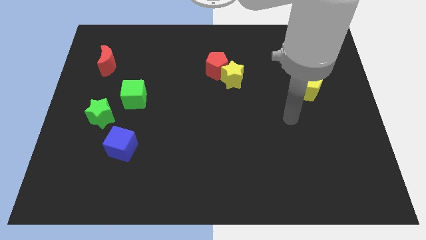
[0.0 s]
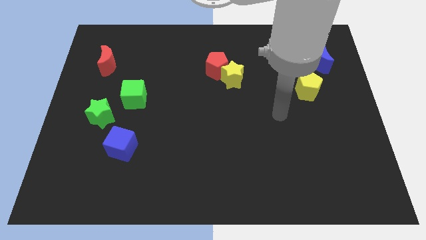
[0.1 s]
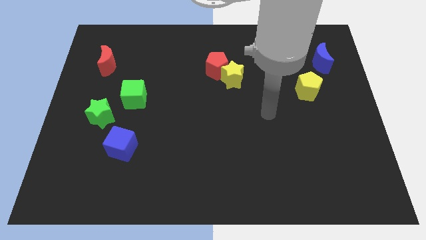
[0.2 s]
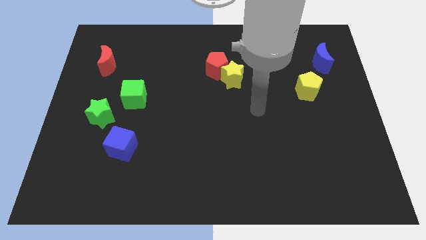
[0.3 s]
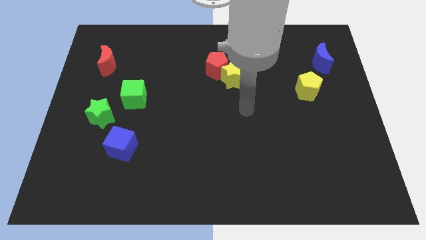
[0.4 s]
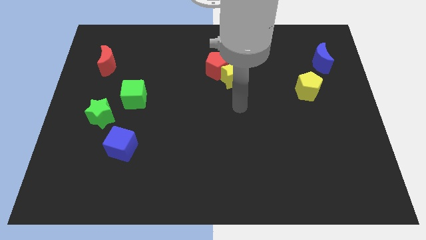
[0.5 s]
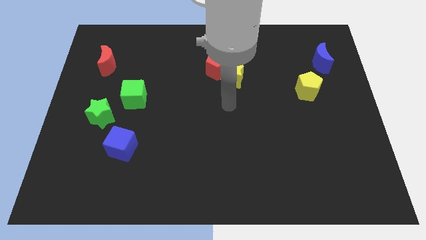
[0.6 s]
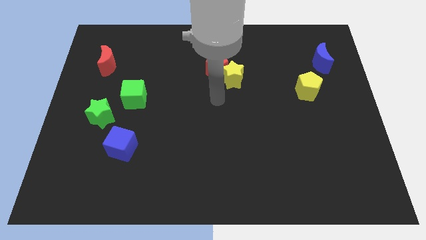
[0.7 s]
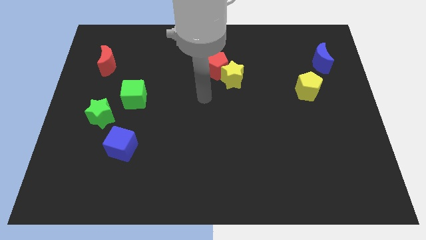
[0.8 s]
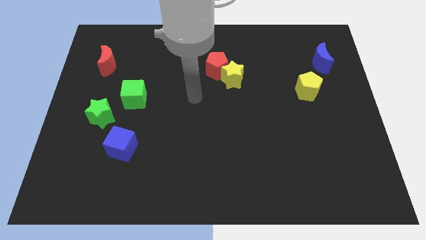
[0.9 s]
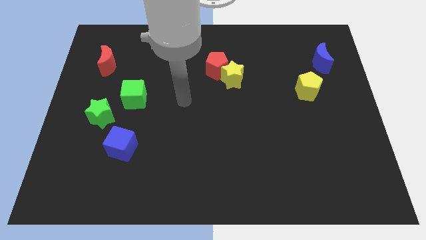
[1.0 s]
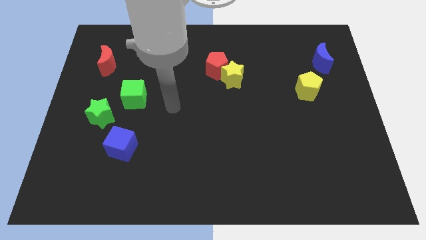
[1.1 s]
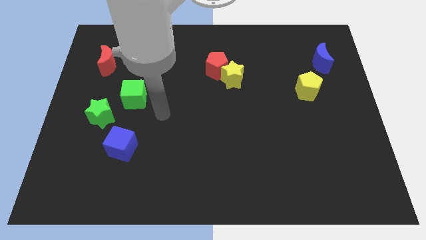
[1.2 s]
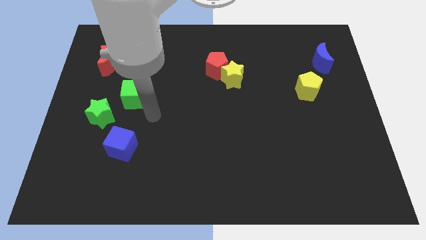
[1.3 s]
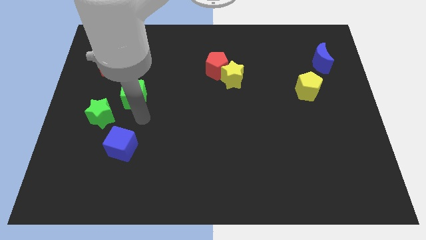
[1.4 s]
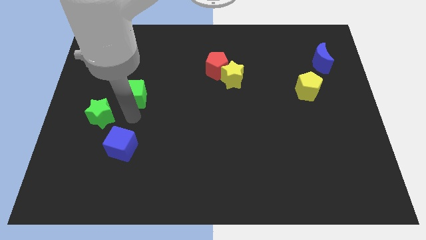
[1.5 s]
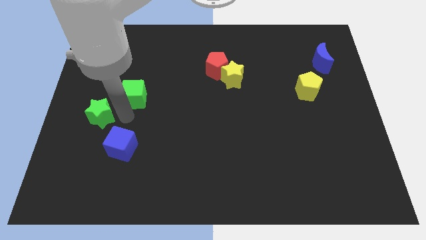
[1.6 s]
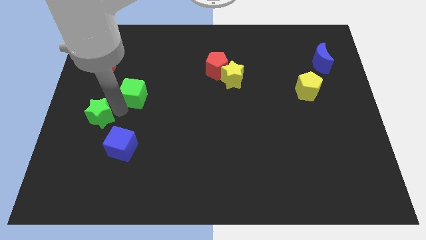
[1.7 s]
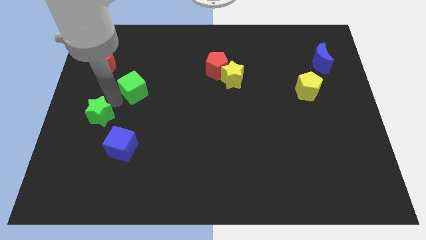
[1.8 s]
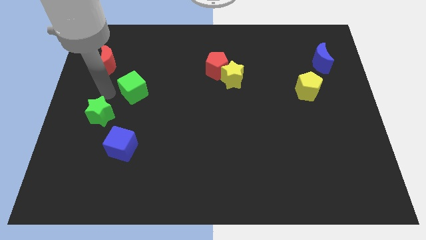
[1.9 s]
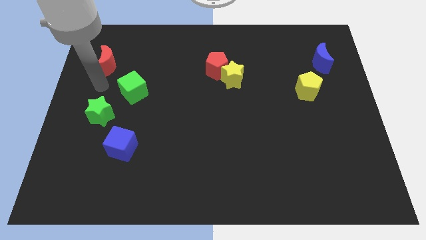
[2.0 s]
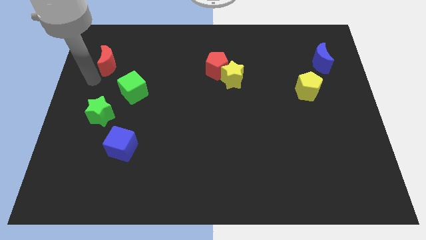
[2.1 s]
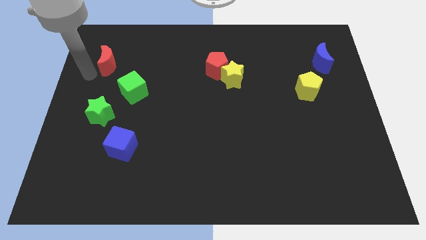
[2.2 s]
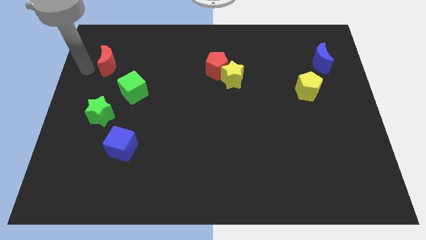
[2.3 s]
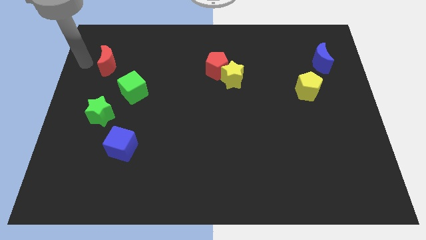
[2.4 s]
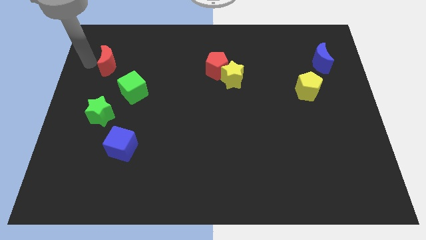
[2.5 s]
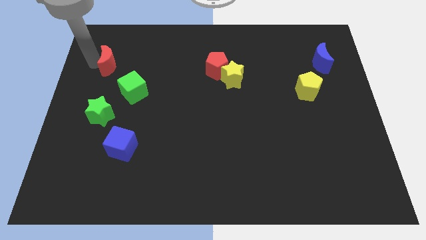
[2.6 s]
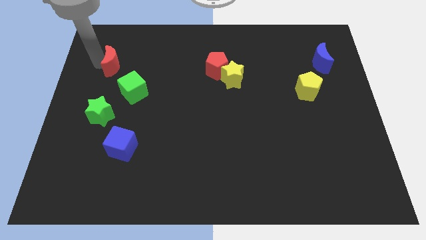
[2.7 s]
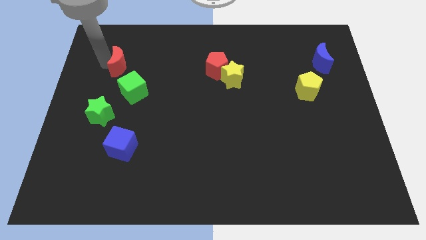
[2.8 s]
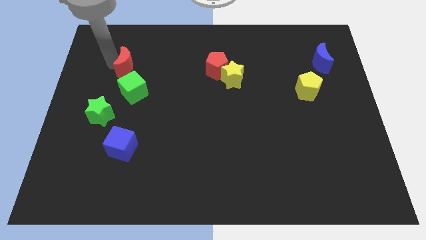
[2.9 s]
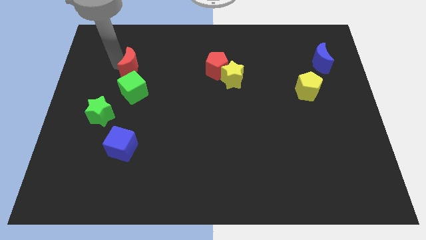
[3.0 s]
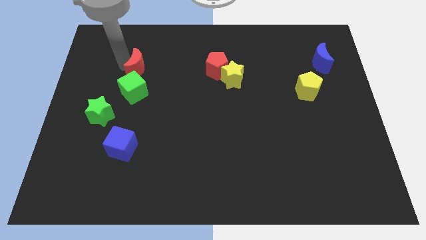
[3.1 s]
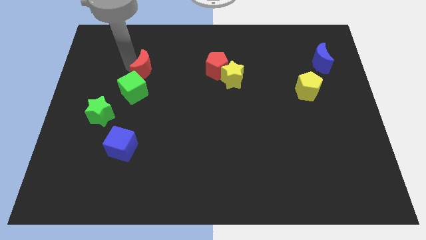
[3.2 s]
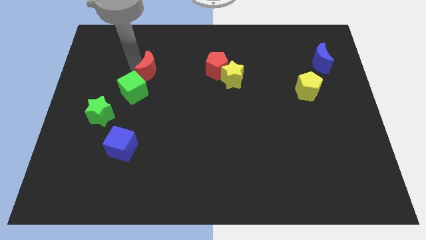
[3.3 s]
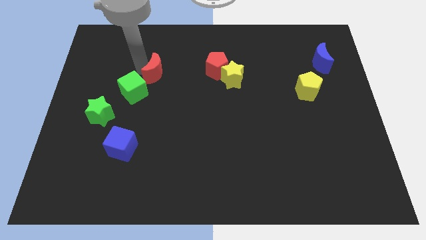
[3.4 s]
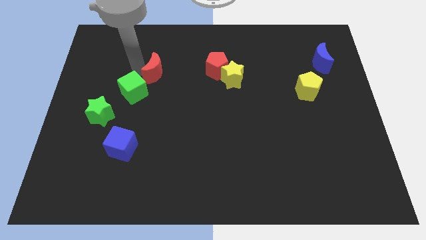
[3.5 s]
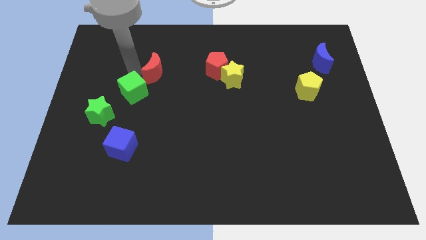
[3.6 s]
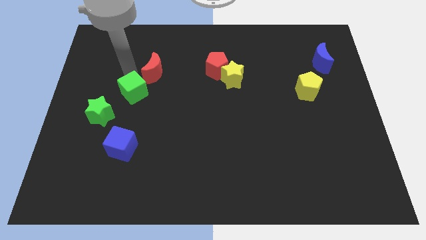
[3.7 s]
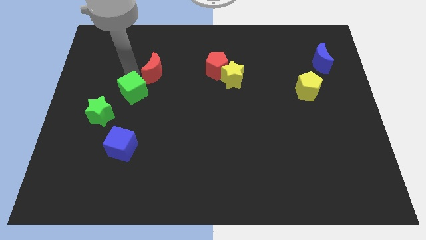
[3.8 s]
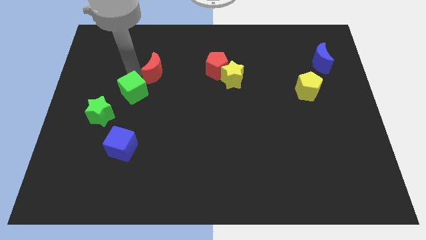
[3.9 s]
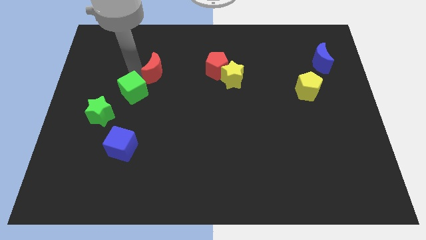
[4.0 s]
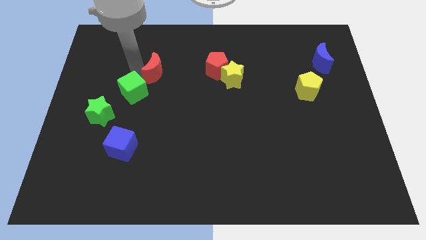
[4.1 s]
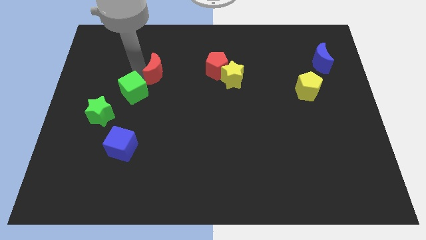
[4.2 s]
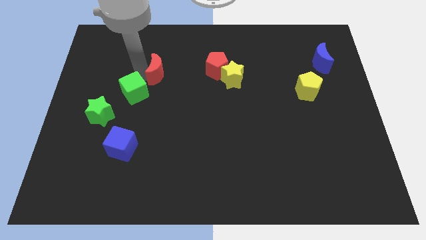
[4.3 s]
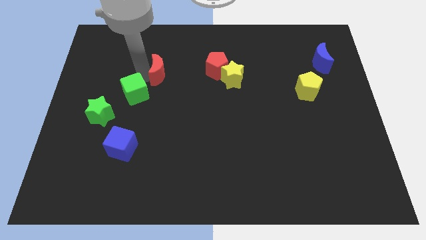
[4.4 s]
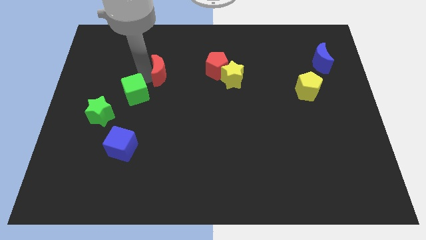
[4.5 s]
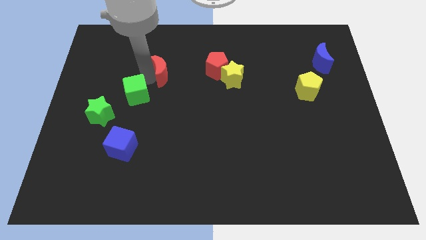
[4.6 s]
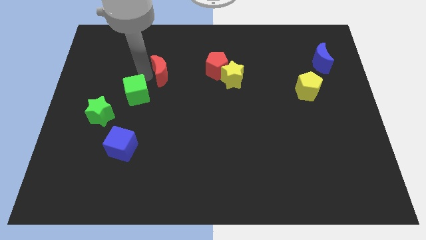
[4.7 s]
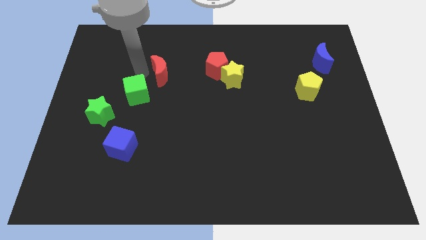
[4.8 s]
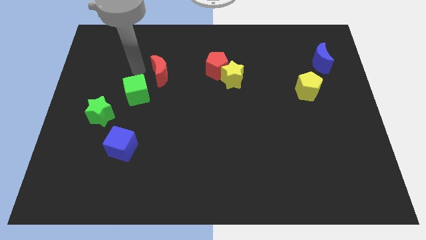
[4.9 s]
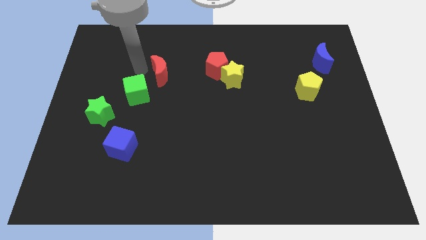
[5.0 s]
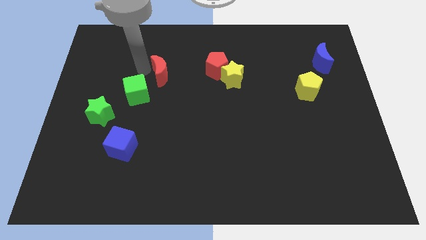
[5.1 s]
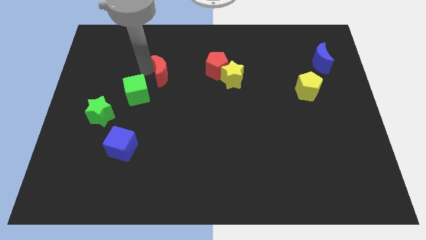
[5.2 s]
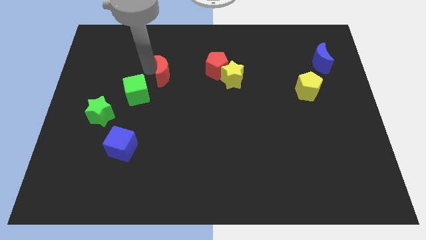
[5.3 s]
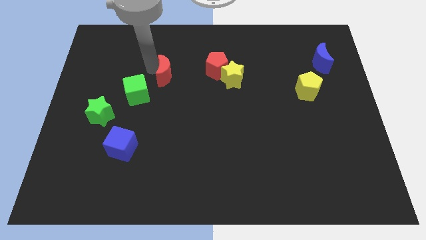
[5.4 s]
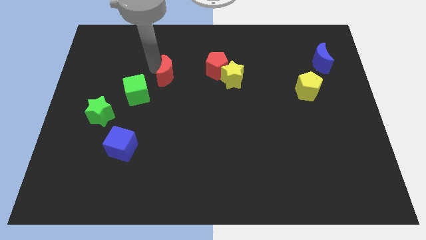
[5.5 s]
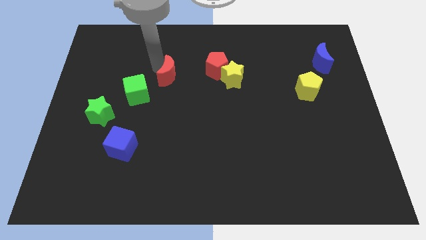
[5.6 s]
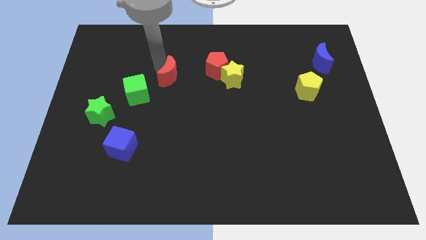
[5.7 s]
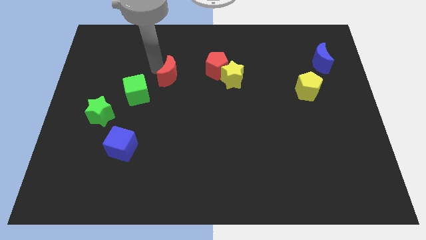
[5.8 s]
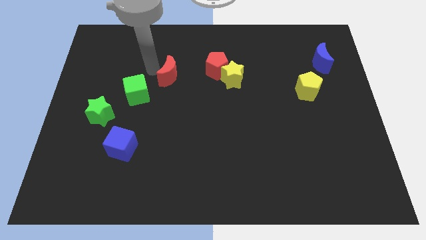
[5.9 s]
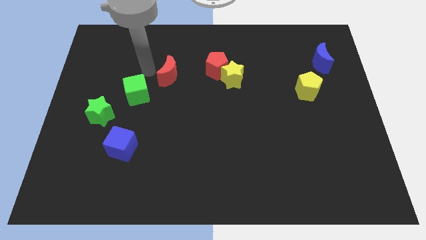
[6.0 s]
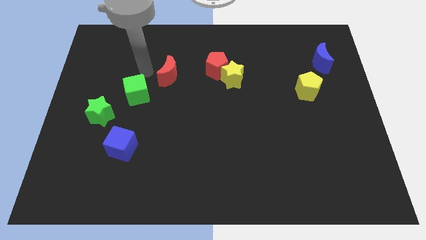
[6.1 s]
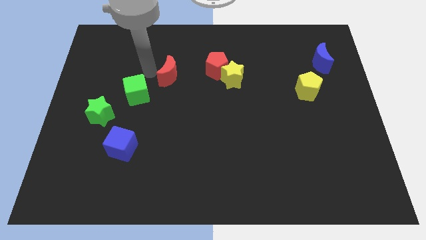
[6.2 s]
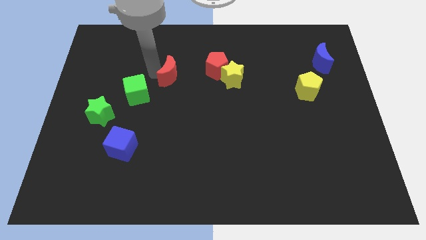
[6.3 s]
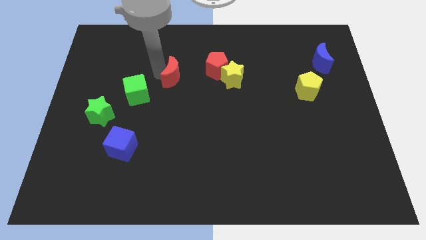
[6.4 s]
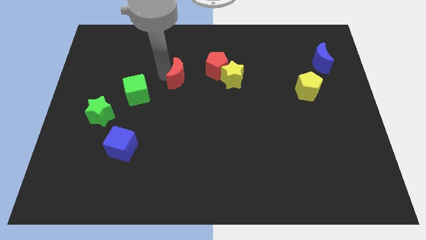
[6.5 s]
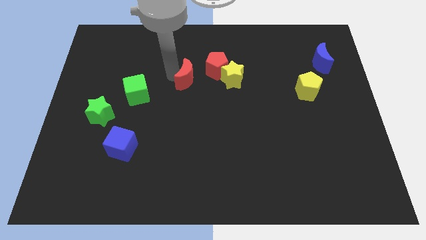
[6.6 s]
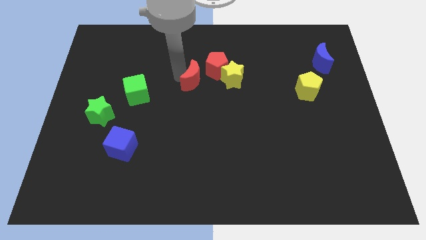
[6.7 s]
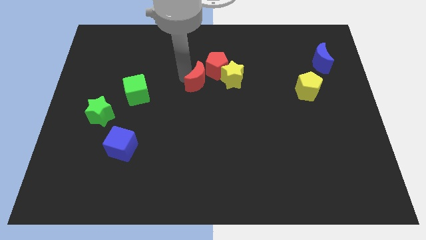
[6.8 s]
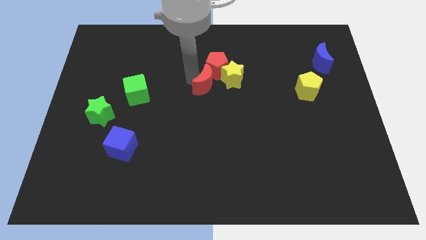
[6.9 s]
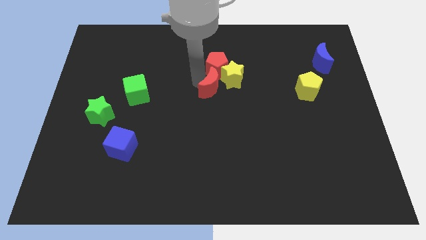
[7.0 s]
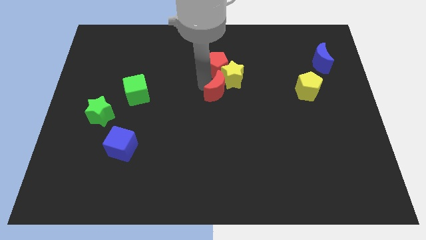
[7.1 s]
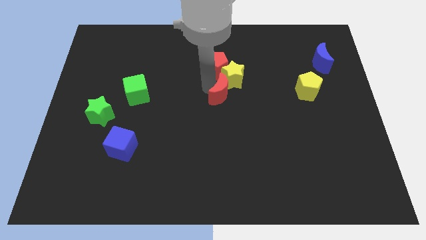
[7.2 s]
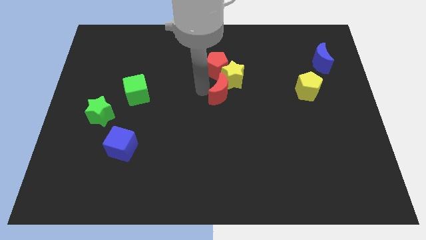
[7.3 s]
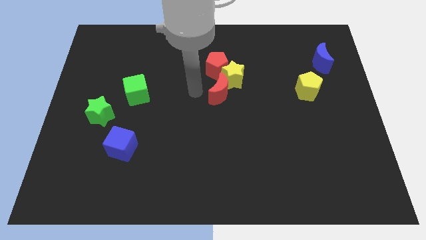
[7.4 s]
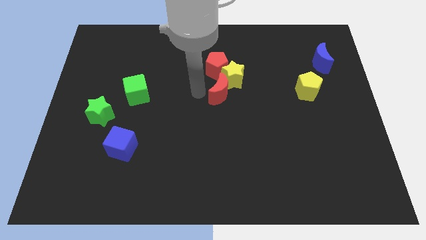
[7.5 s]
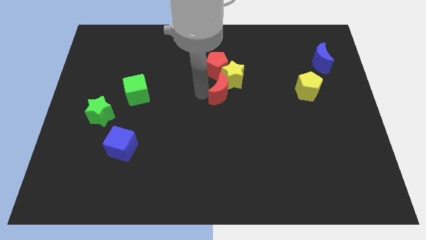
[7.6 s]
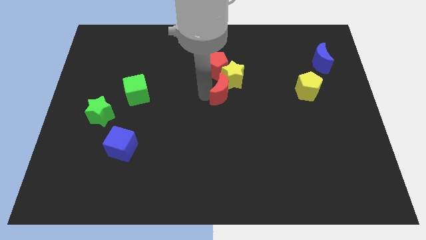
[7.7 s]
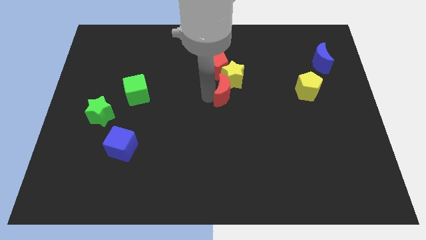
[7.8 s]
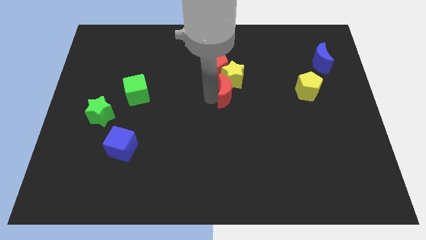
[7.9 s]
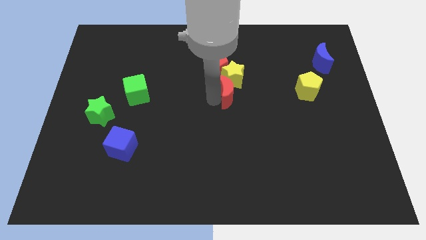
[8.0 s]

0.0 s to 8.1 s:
push the red moon diagonally down and to the right of the yellow star
